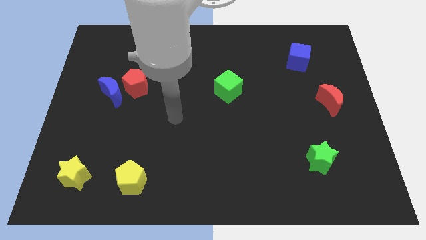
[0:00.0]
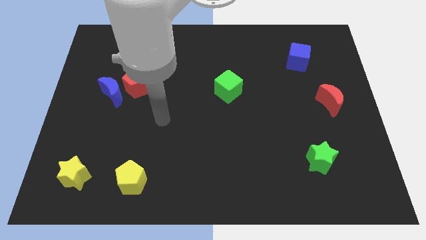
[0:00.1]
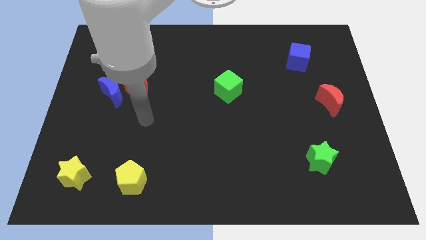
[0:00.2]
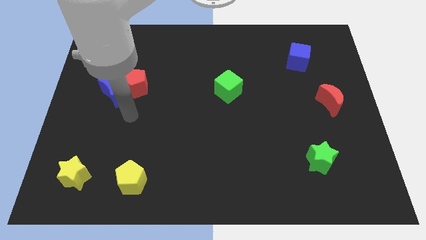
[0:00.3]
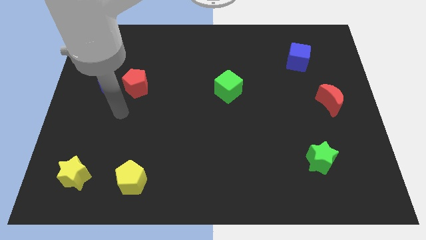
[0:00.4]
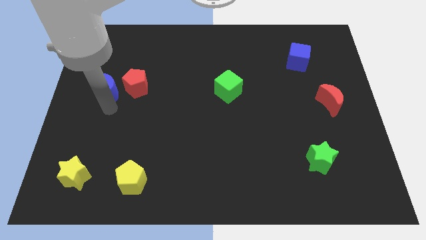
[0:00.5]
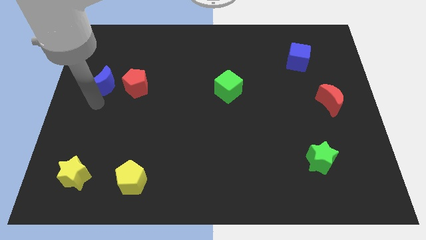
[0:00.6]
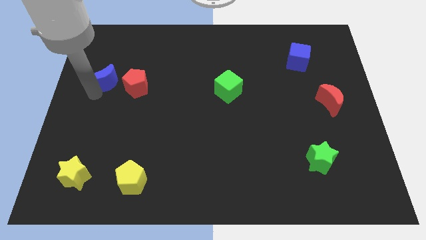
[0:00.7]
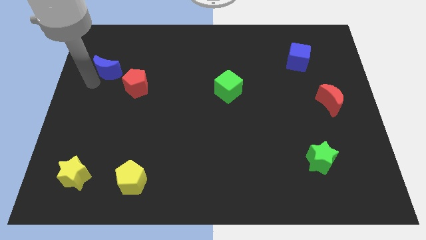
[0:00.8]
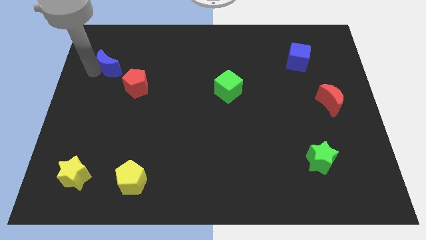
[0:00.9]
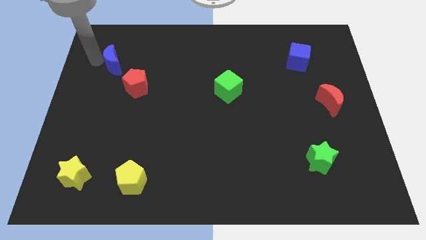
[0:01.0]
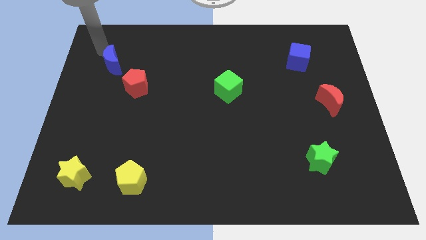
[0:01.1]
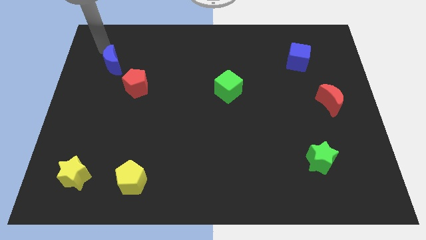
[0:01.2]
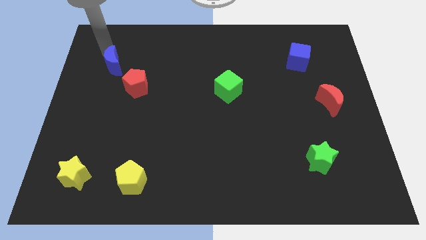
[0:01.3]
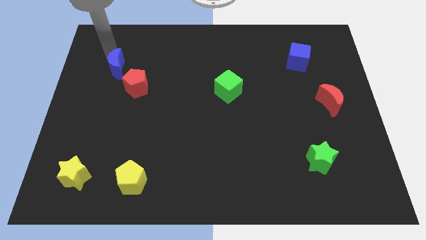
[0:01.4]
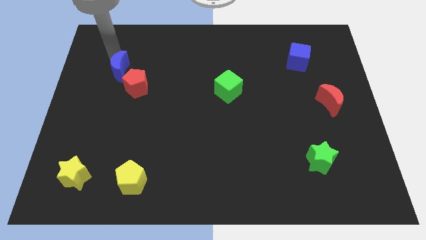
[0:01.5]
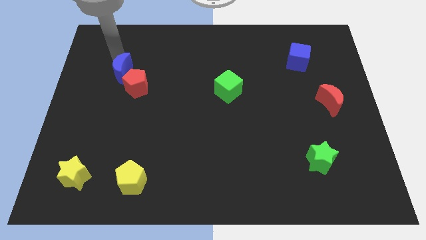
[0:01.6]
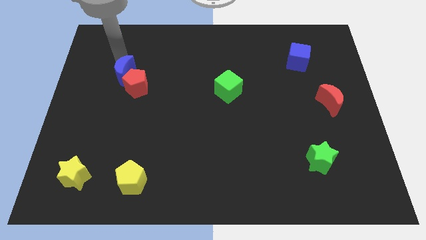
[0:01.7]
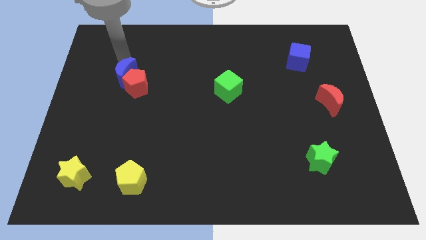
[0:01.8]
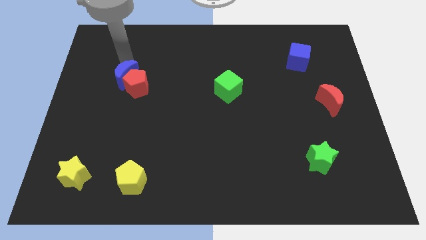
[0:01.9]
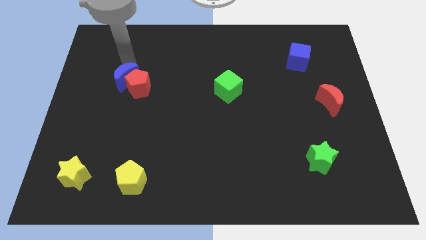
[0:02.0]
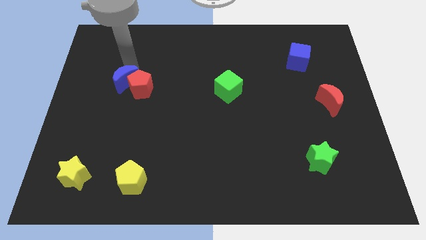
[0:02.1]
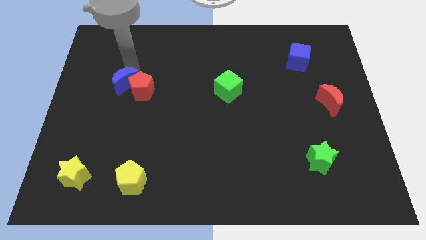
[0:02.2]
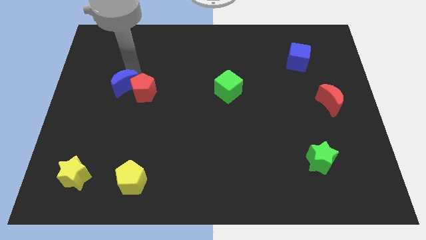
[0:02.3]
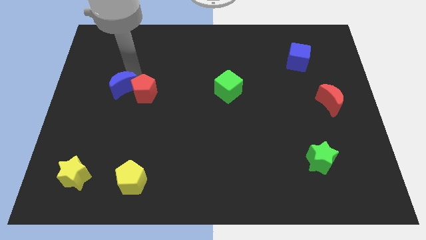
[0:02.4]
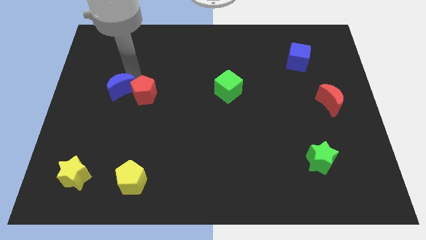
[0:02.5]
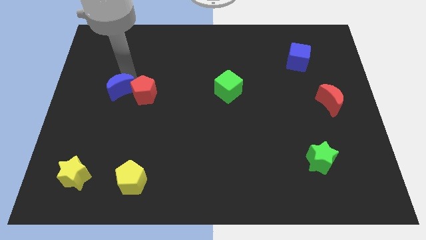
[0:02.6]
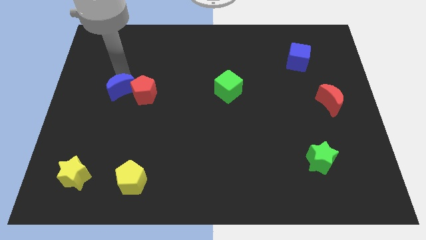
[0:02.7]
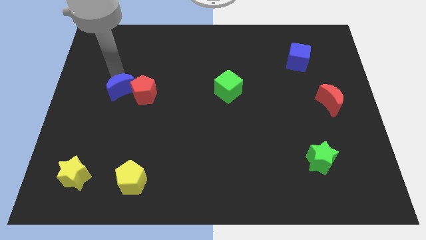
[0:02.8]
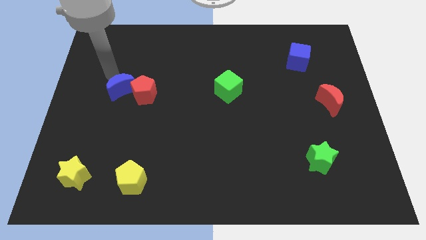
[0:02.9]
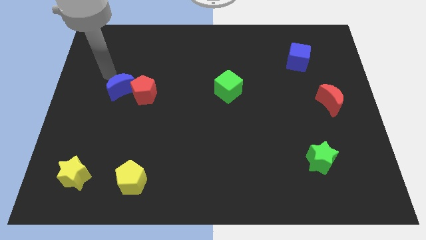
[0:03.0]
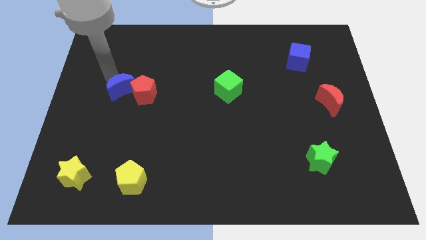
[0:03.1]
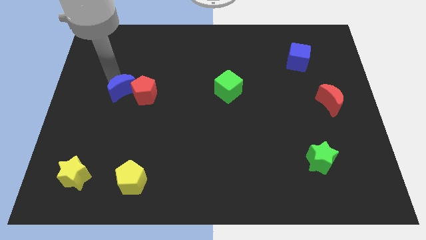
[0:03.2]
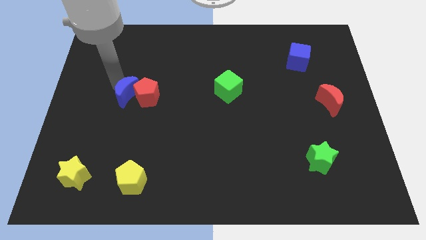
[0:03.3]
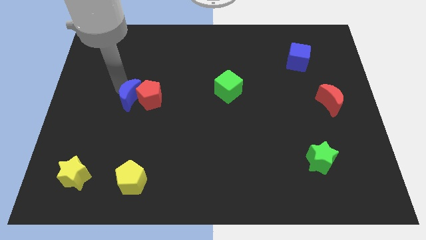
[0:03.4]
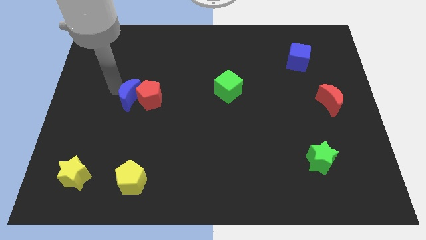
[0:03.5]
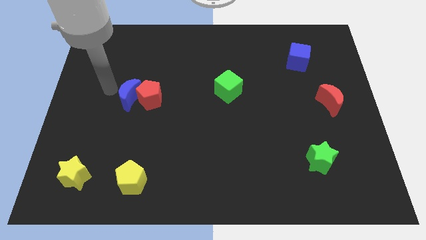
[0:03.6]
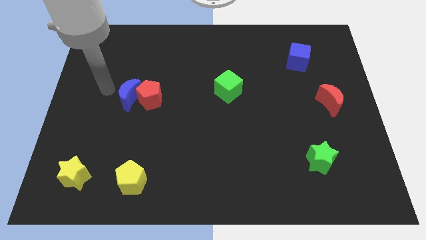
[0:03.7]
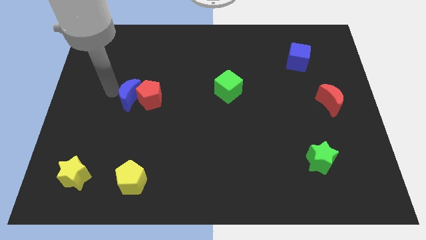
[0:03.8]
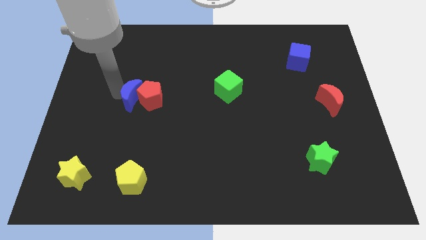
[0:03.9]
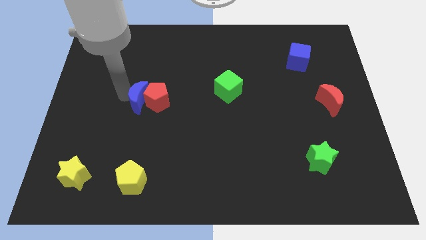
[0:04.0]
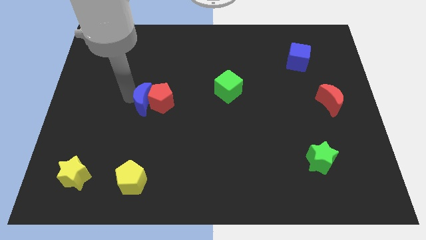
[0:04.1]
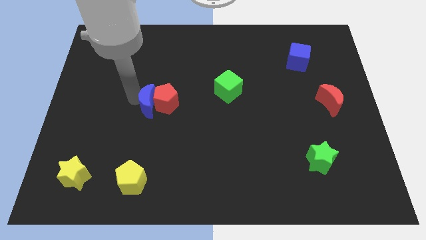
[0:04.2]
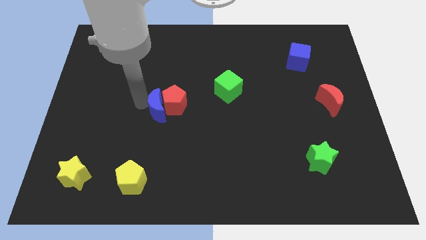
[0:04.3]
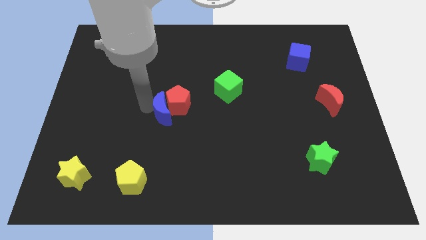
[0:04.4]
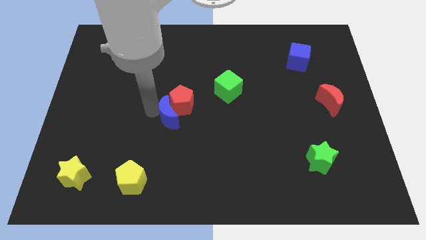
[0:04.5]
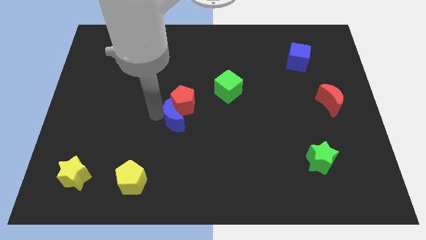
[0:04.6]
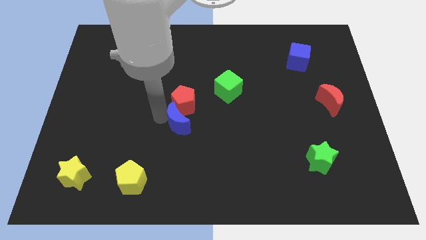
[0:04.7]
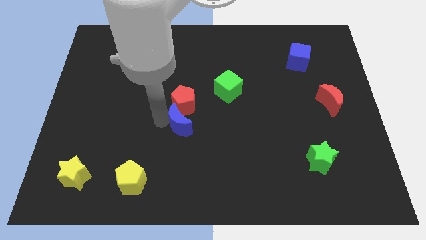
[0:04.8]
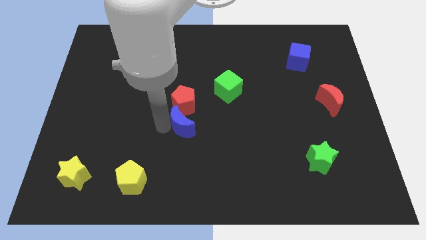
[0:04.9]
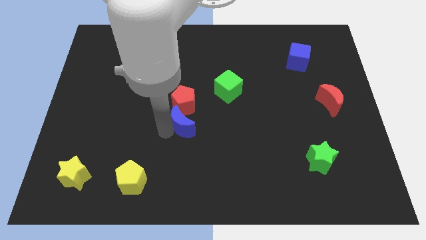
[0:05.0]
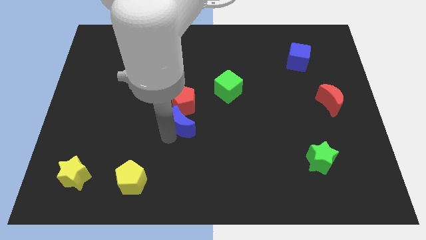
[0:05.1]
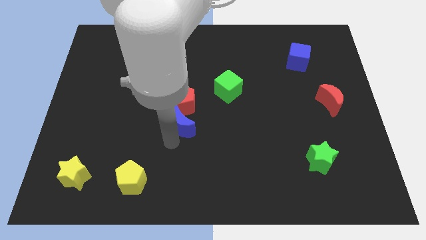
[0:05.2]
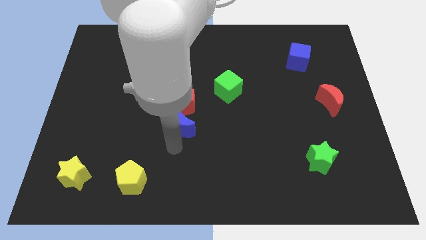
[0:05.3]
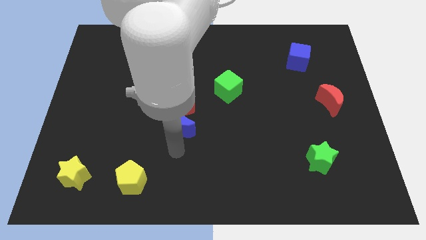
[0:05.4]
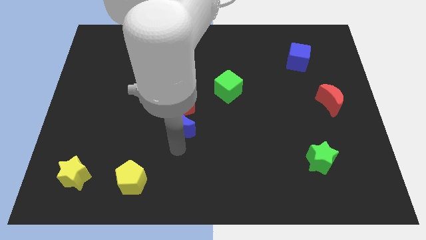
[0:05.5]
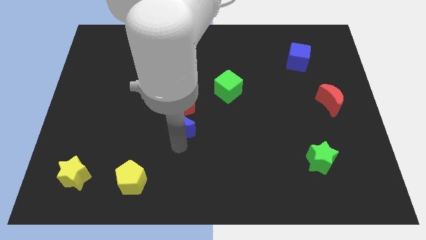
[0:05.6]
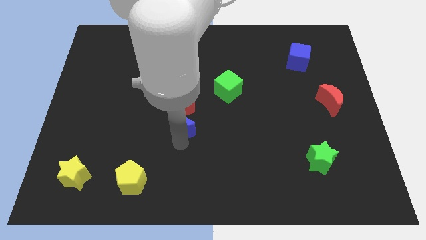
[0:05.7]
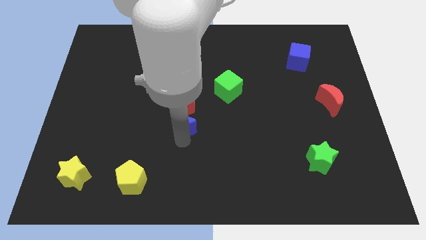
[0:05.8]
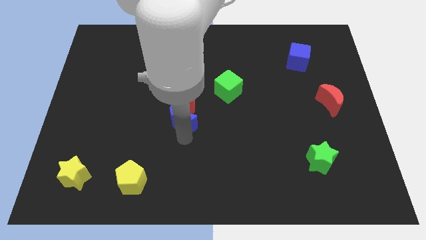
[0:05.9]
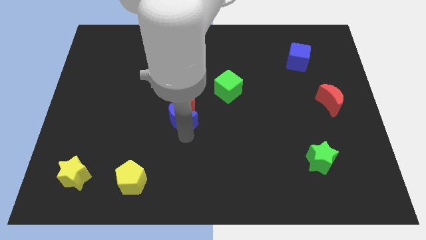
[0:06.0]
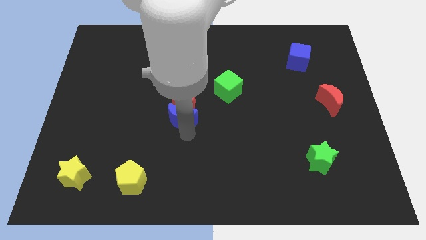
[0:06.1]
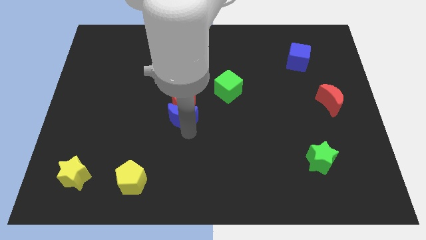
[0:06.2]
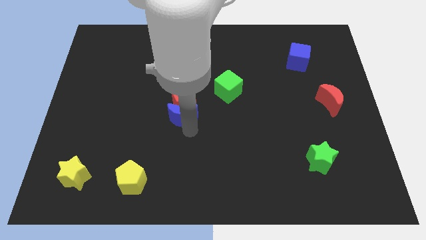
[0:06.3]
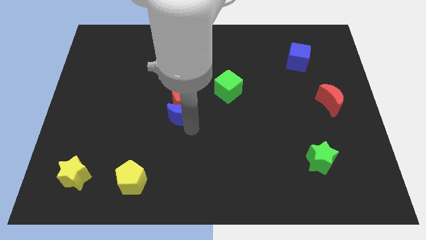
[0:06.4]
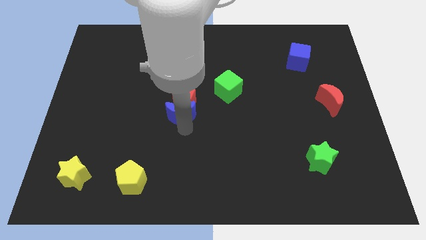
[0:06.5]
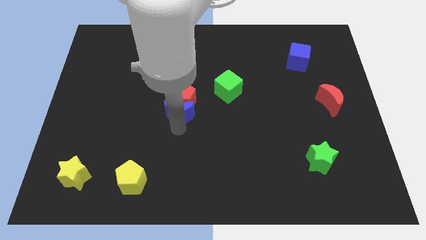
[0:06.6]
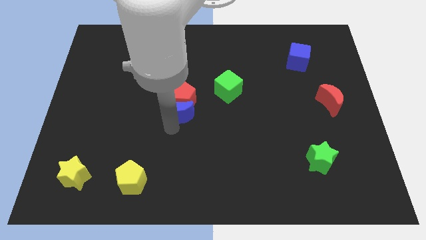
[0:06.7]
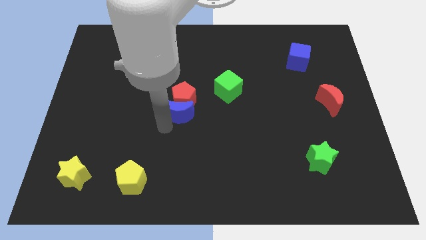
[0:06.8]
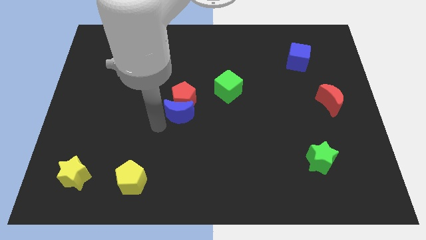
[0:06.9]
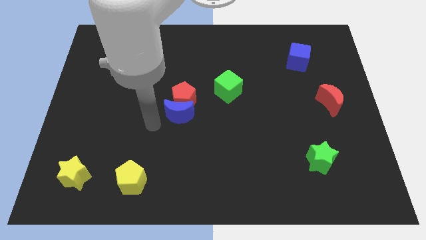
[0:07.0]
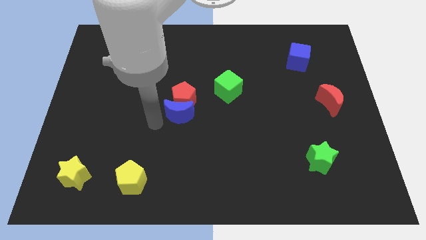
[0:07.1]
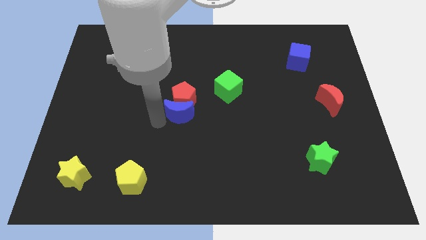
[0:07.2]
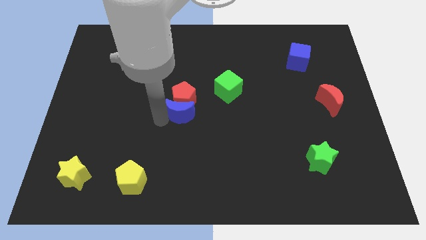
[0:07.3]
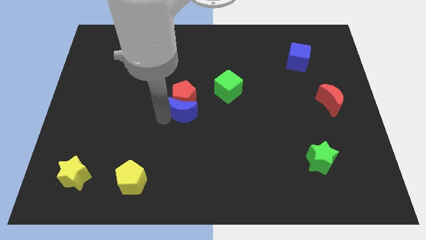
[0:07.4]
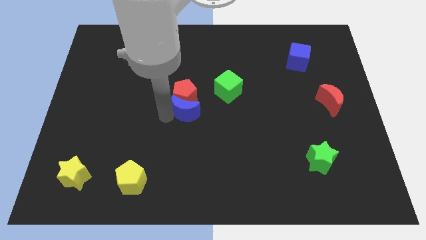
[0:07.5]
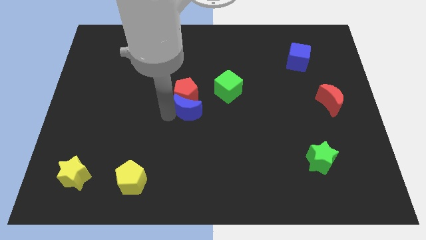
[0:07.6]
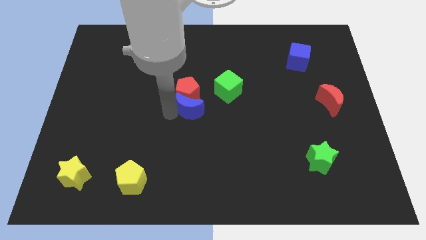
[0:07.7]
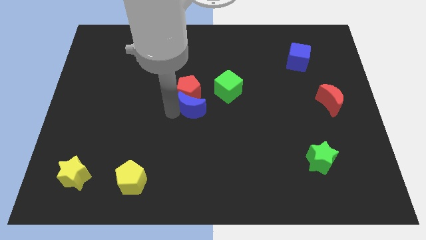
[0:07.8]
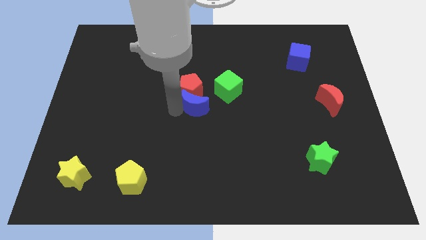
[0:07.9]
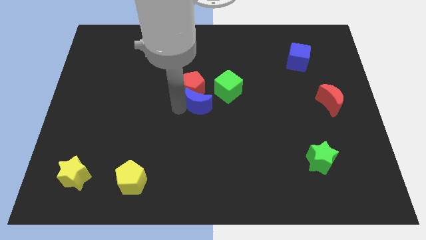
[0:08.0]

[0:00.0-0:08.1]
push the blue moon right

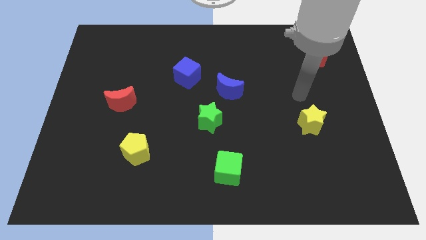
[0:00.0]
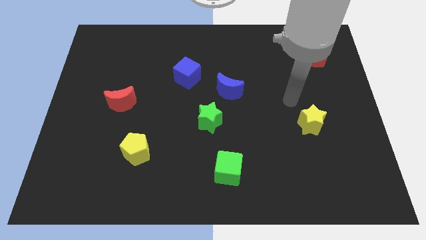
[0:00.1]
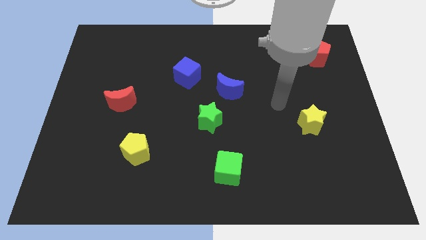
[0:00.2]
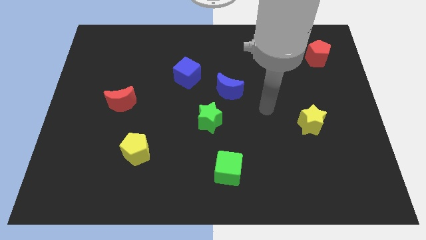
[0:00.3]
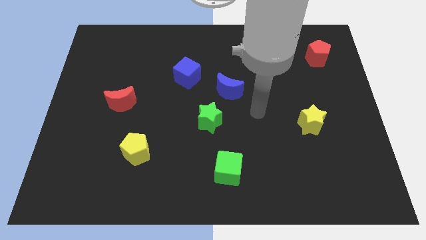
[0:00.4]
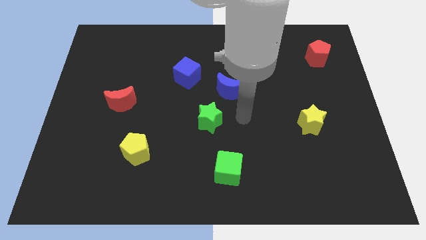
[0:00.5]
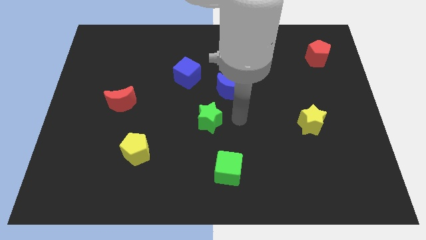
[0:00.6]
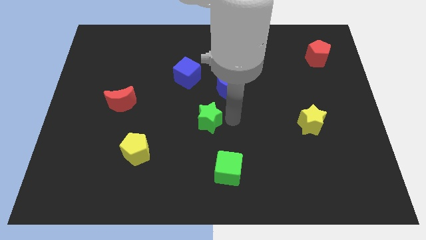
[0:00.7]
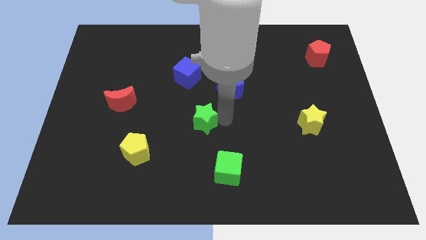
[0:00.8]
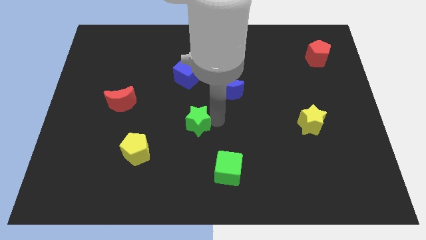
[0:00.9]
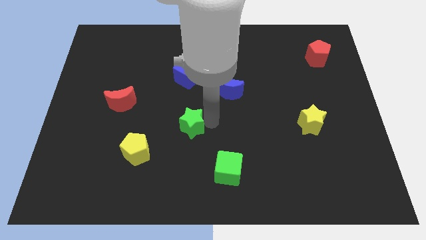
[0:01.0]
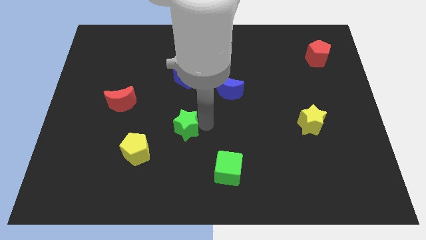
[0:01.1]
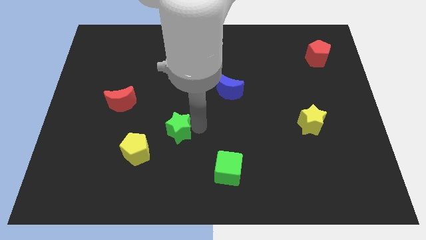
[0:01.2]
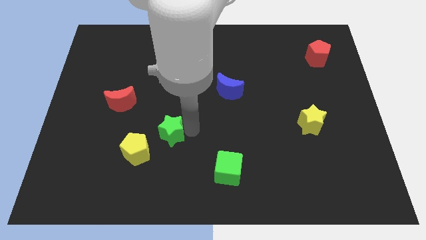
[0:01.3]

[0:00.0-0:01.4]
push the green star a bit left
